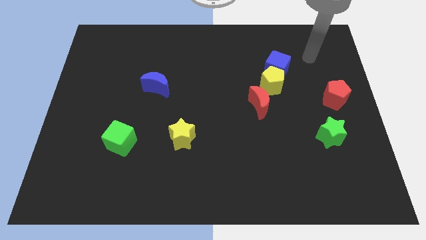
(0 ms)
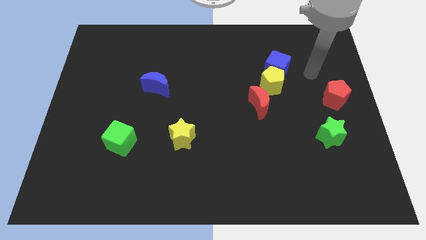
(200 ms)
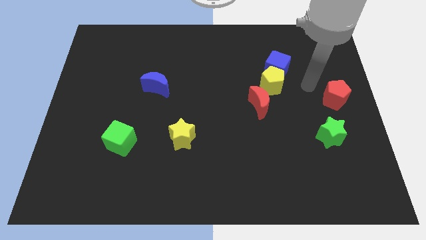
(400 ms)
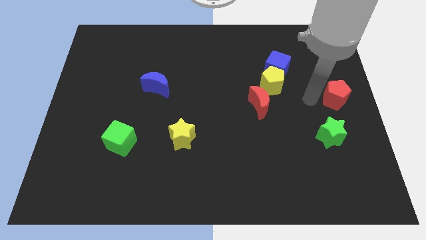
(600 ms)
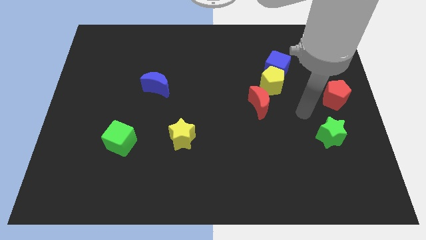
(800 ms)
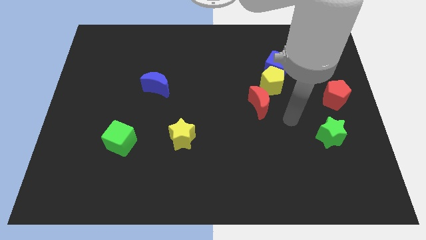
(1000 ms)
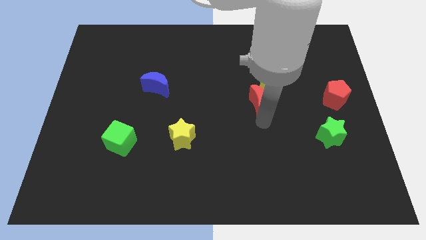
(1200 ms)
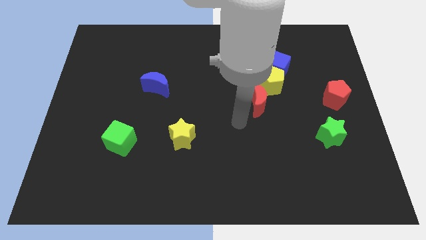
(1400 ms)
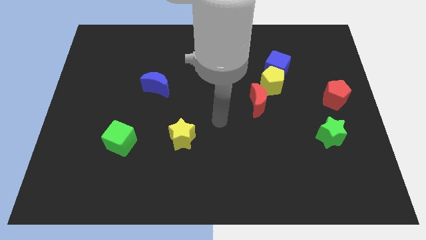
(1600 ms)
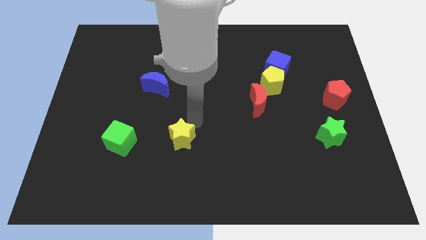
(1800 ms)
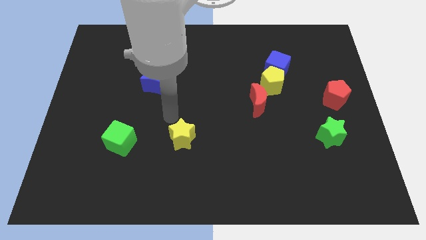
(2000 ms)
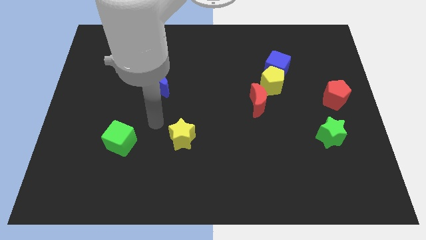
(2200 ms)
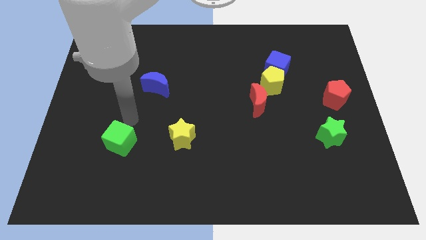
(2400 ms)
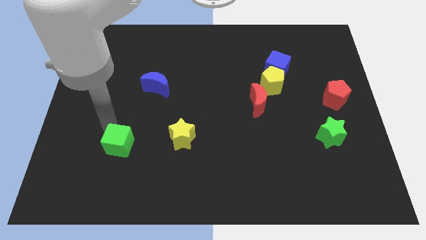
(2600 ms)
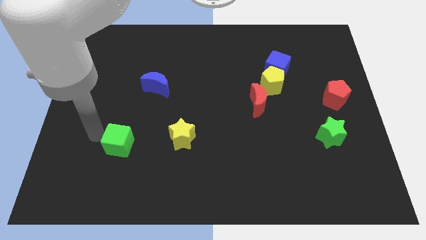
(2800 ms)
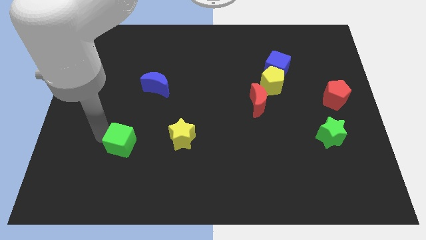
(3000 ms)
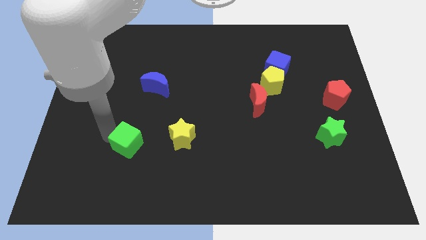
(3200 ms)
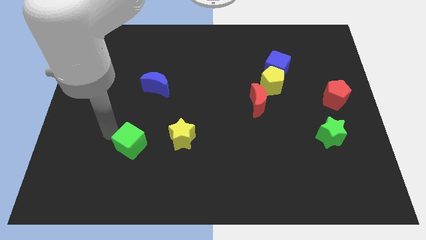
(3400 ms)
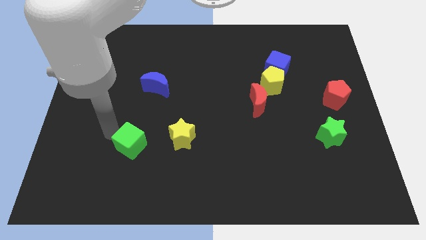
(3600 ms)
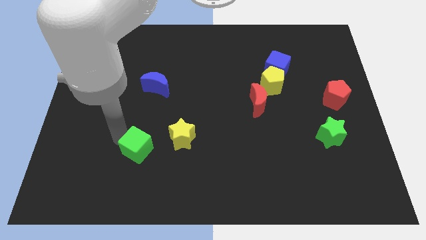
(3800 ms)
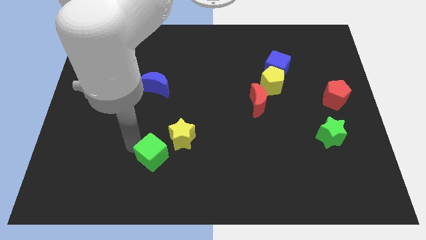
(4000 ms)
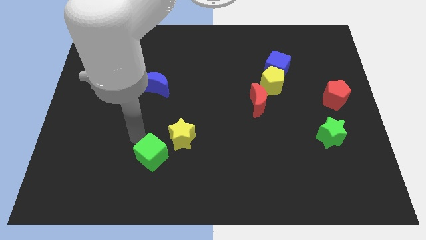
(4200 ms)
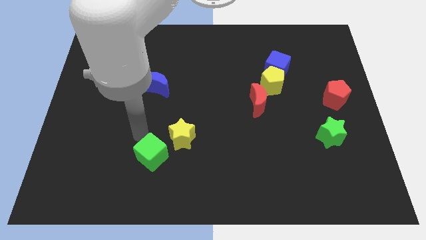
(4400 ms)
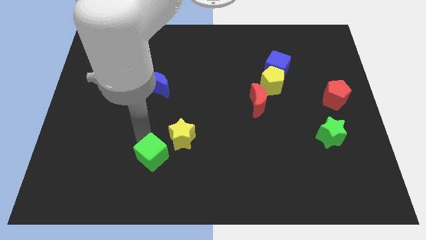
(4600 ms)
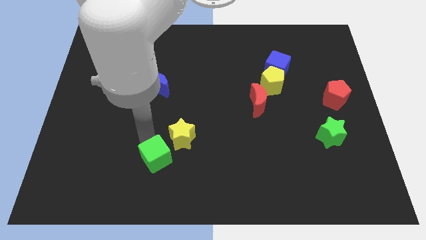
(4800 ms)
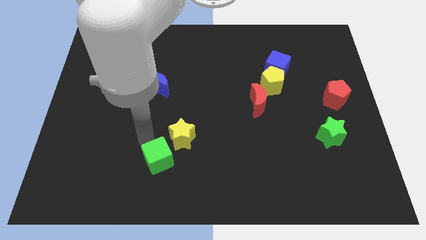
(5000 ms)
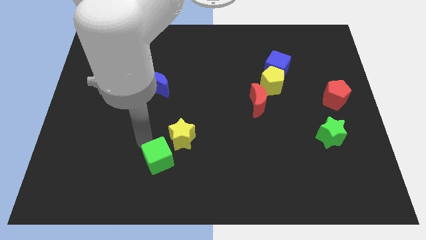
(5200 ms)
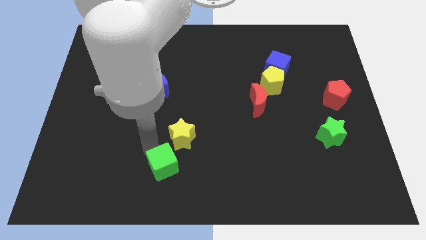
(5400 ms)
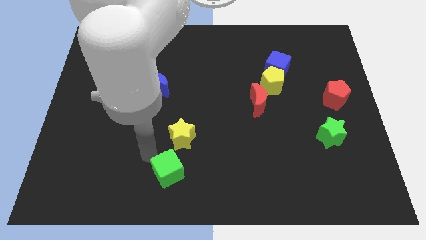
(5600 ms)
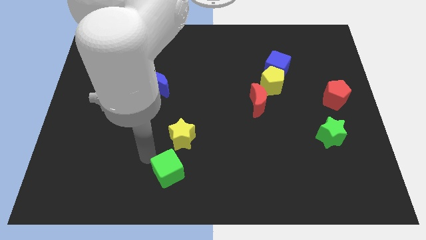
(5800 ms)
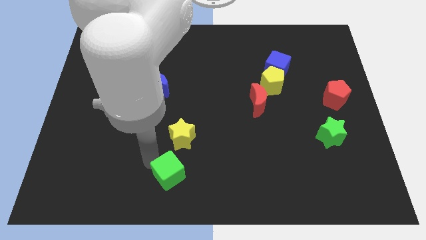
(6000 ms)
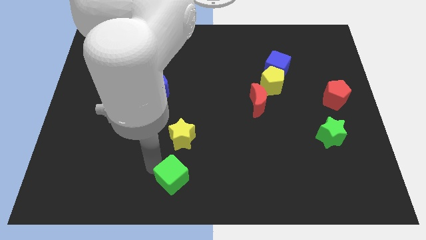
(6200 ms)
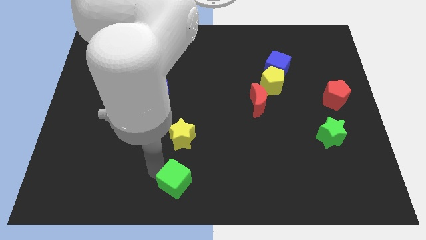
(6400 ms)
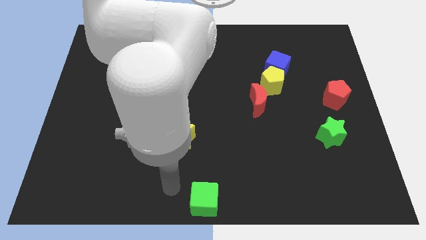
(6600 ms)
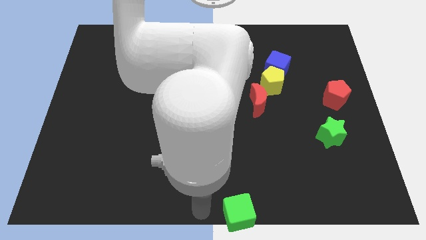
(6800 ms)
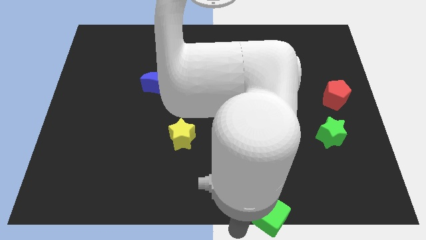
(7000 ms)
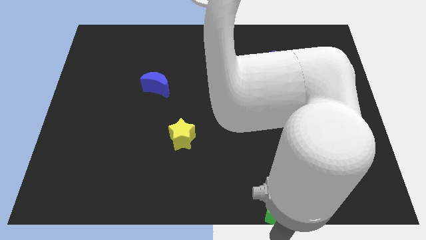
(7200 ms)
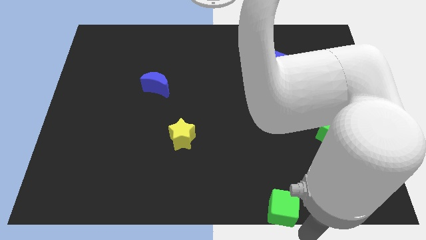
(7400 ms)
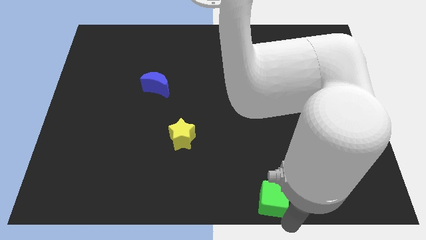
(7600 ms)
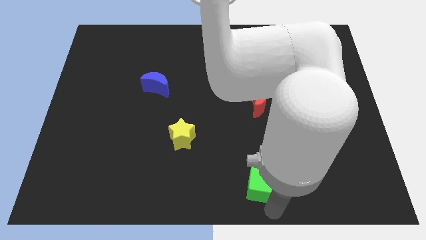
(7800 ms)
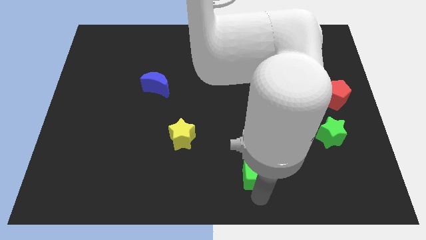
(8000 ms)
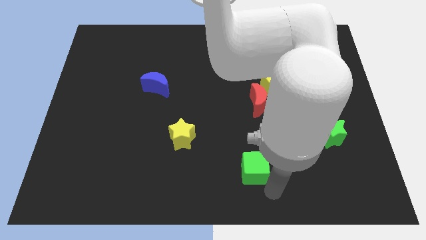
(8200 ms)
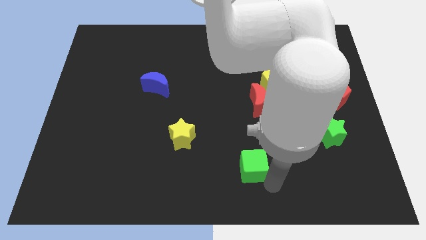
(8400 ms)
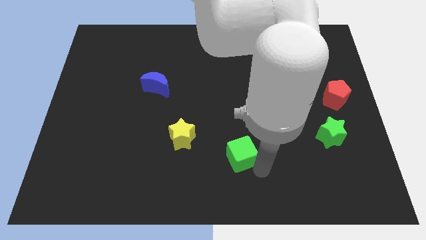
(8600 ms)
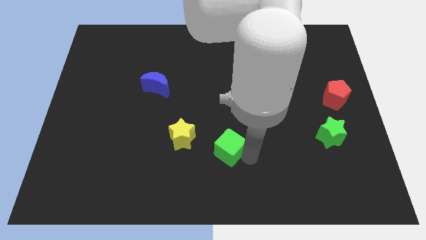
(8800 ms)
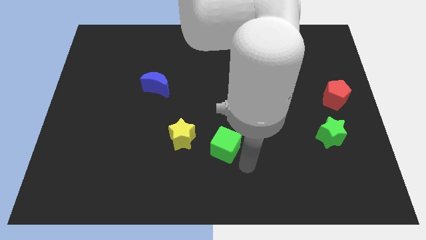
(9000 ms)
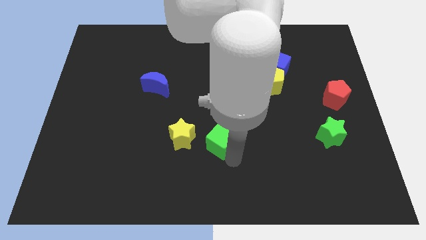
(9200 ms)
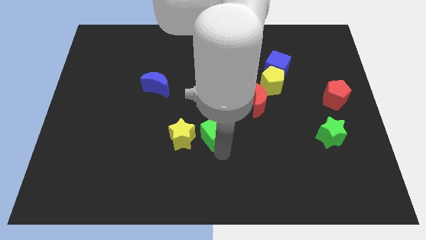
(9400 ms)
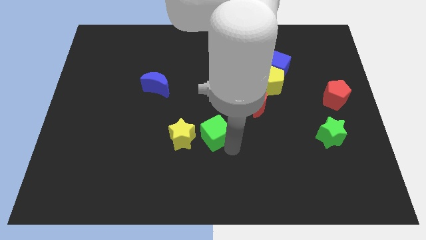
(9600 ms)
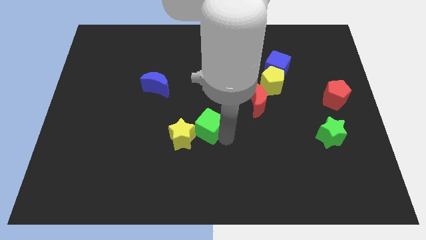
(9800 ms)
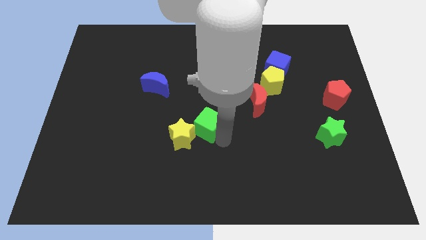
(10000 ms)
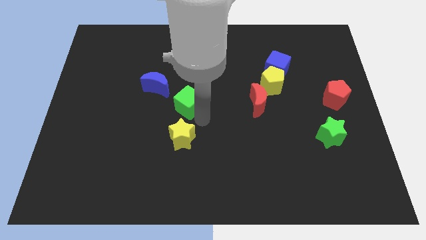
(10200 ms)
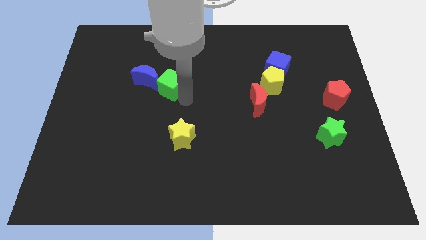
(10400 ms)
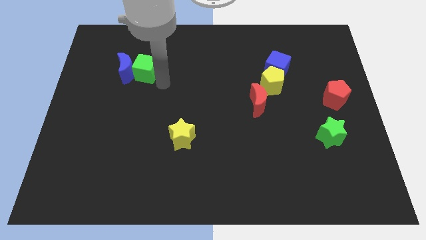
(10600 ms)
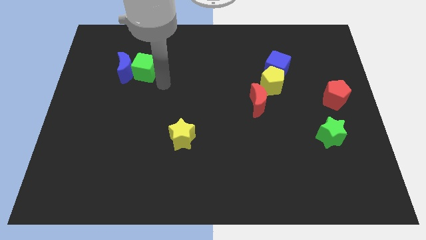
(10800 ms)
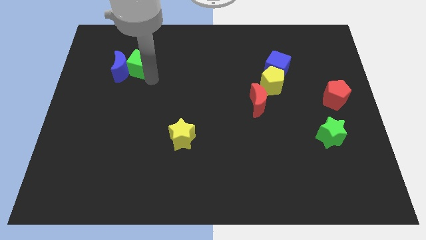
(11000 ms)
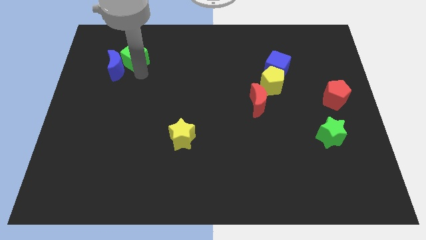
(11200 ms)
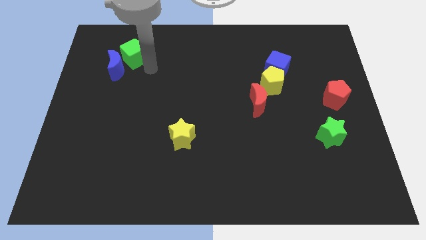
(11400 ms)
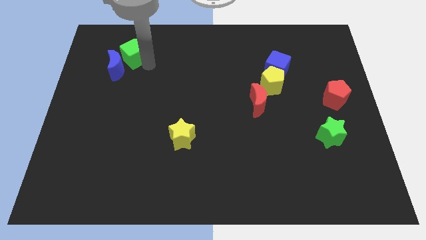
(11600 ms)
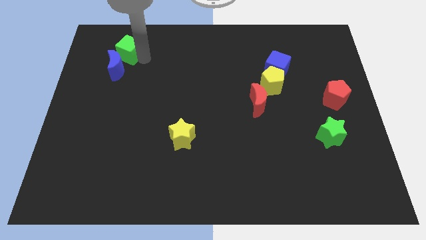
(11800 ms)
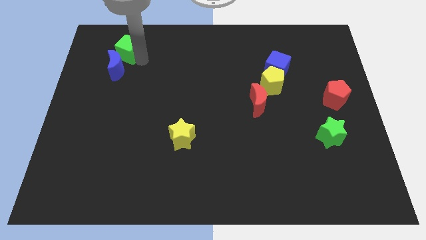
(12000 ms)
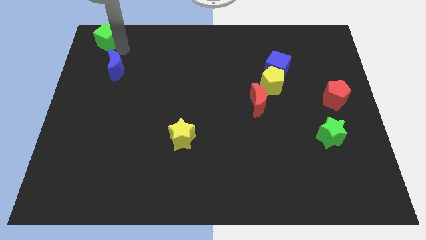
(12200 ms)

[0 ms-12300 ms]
push the green cube to the top left of the board
